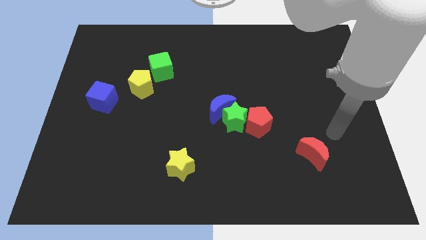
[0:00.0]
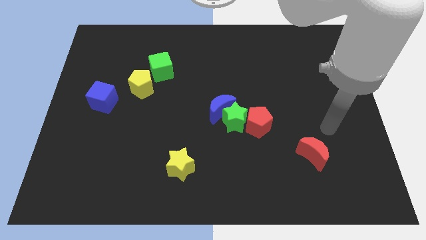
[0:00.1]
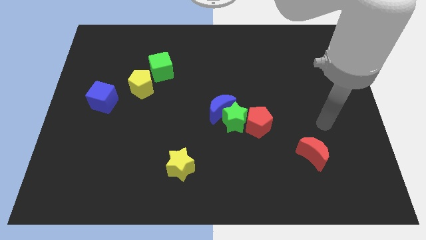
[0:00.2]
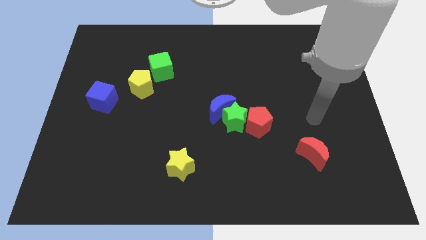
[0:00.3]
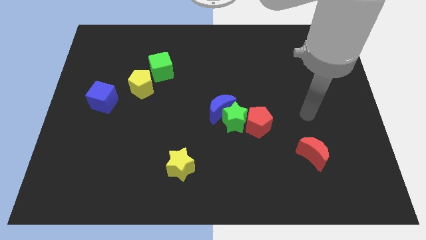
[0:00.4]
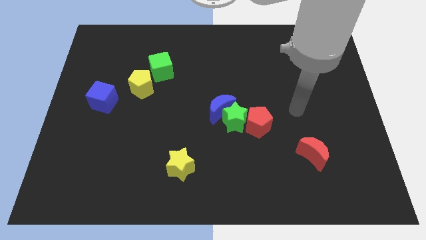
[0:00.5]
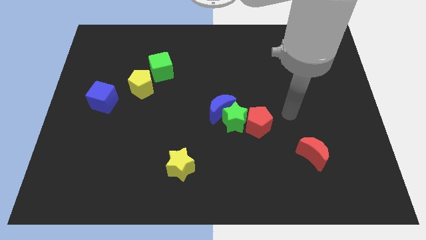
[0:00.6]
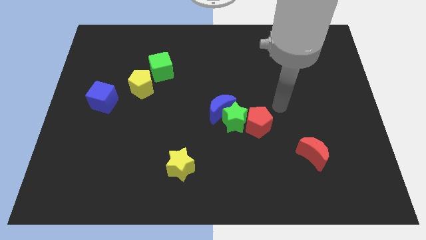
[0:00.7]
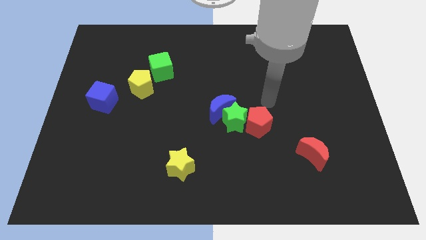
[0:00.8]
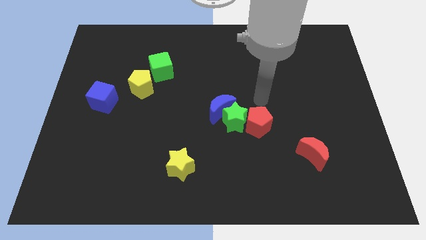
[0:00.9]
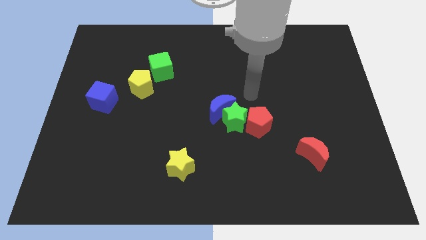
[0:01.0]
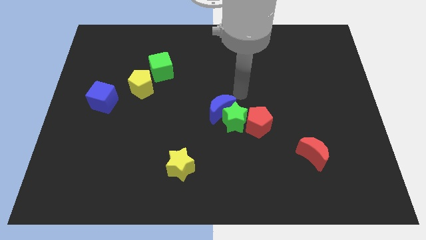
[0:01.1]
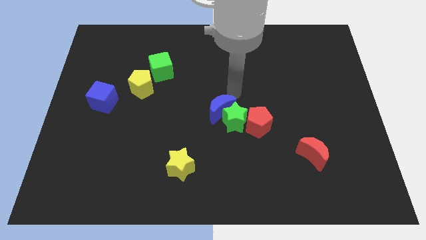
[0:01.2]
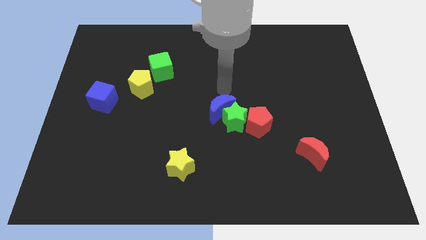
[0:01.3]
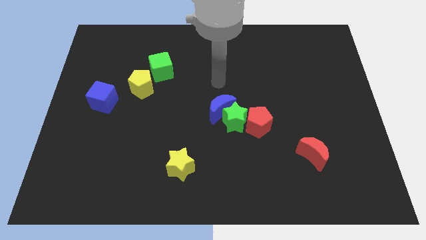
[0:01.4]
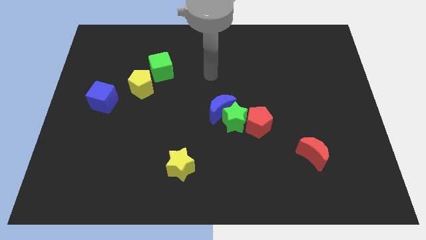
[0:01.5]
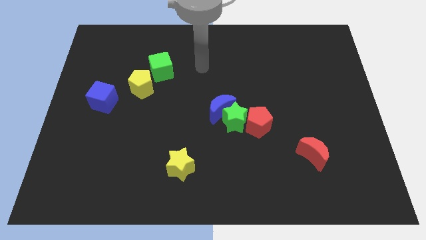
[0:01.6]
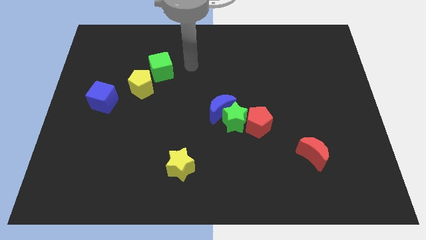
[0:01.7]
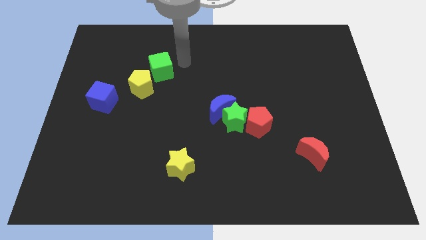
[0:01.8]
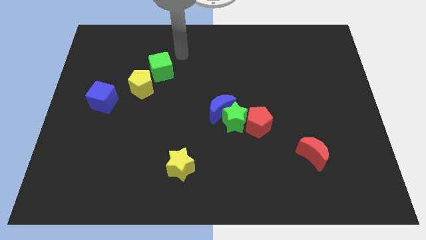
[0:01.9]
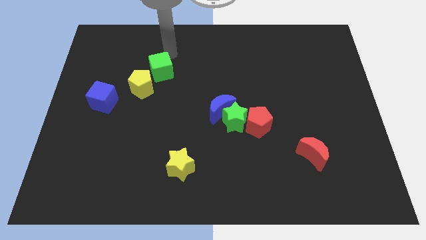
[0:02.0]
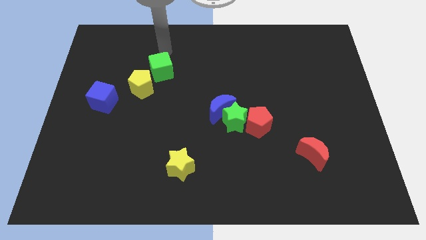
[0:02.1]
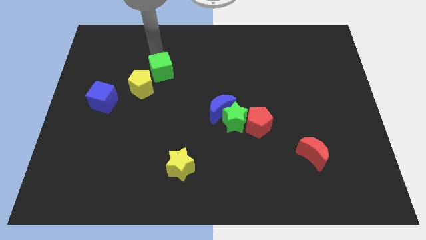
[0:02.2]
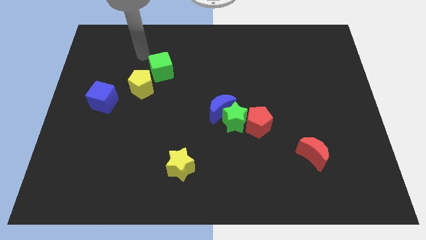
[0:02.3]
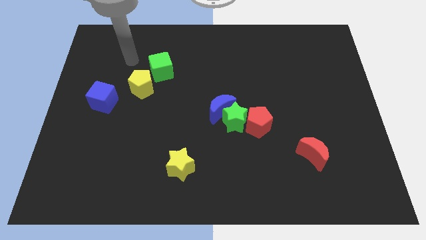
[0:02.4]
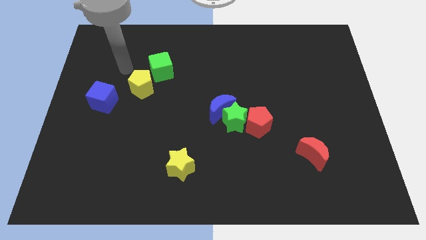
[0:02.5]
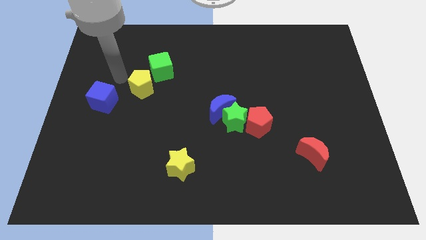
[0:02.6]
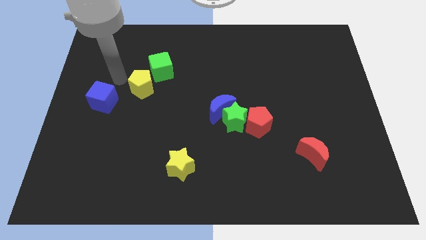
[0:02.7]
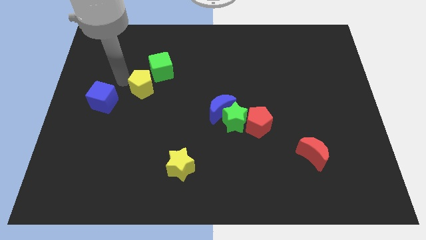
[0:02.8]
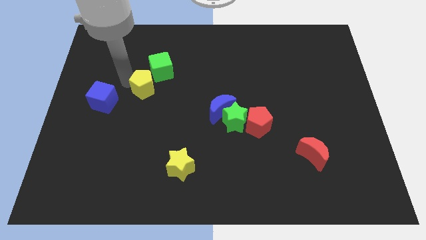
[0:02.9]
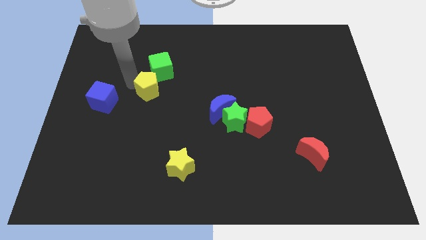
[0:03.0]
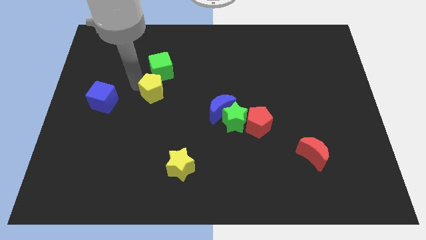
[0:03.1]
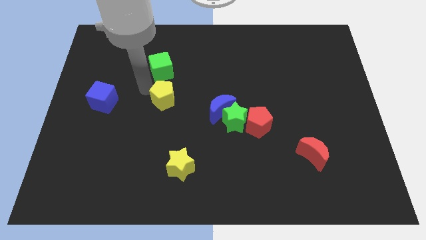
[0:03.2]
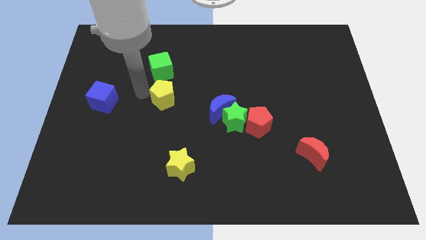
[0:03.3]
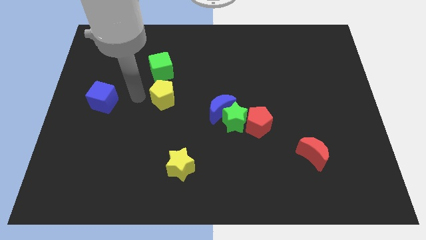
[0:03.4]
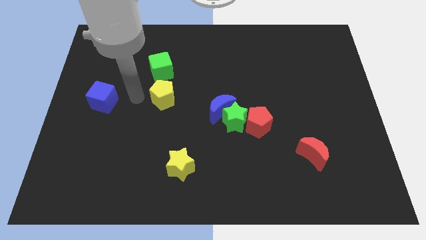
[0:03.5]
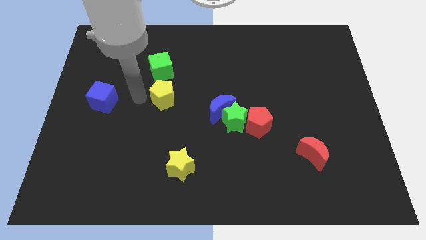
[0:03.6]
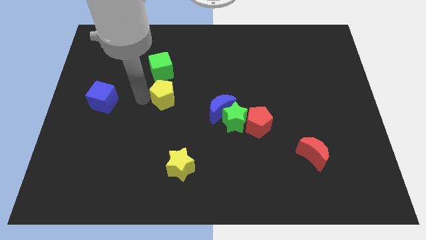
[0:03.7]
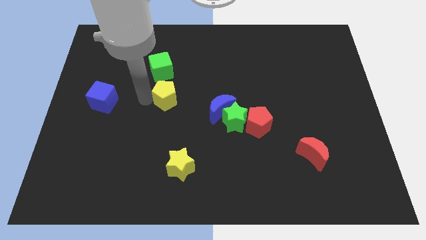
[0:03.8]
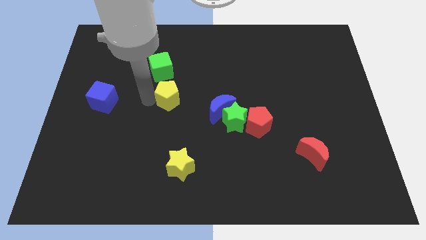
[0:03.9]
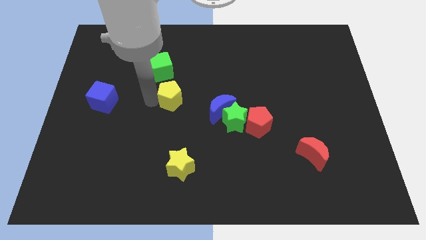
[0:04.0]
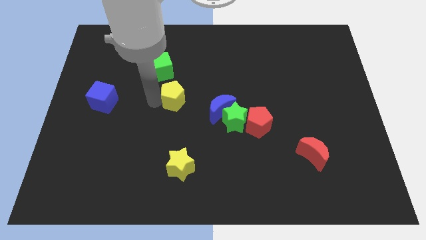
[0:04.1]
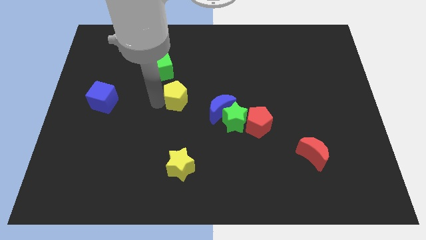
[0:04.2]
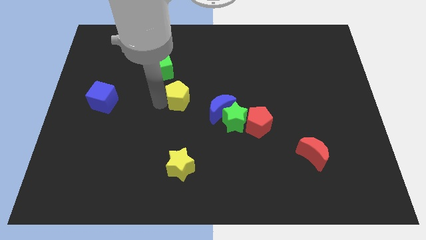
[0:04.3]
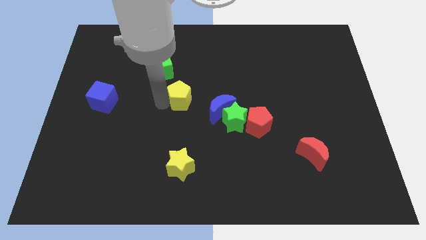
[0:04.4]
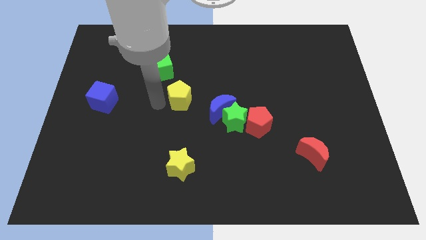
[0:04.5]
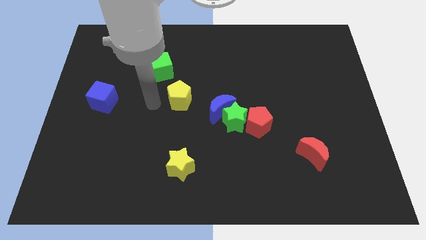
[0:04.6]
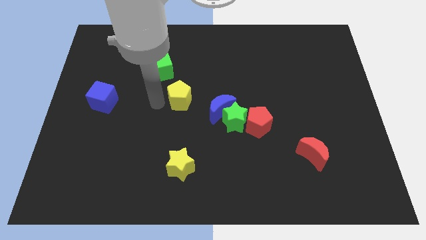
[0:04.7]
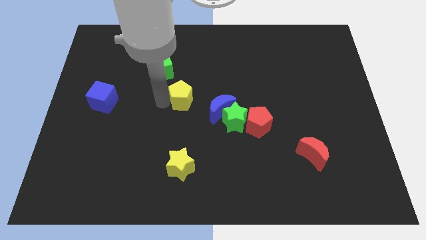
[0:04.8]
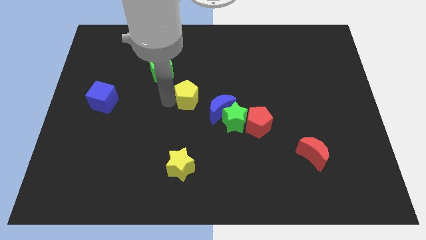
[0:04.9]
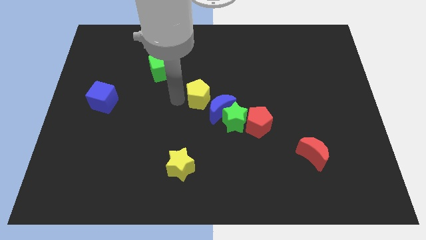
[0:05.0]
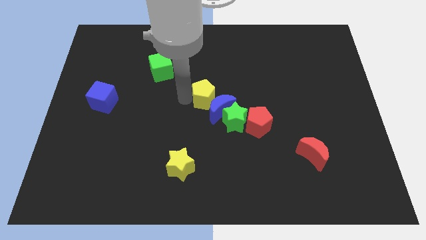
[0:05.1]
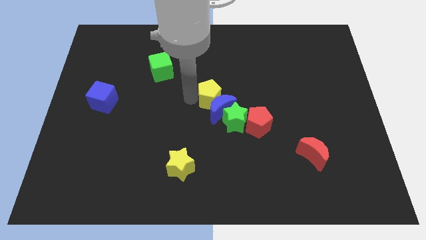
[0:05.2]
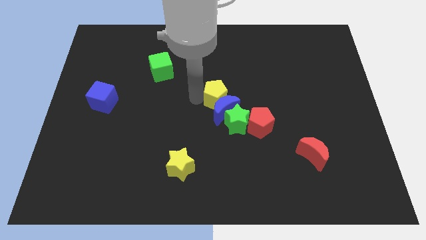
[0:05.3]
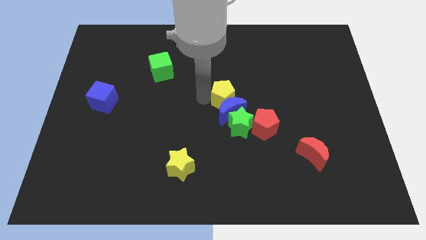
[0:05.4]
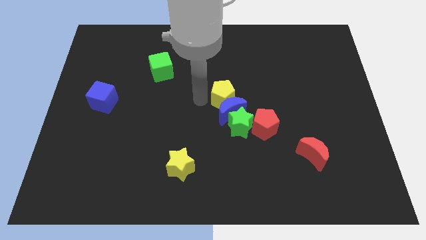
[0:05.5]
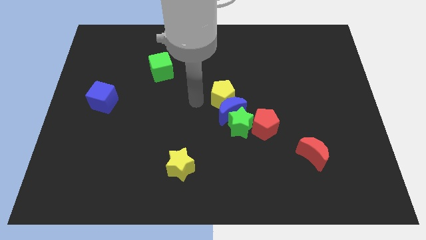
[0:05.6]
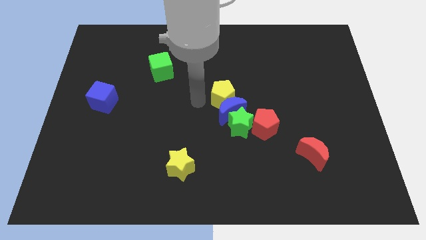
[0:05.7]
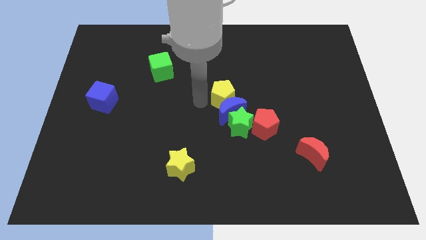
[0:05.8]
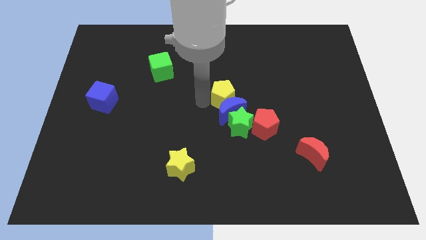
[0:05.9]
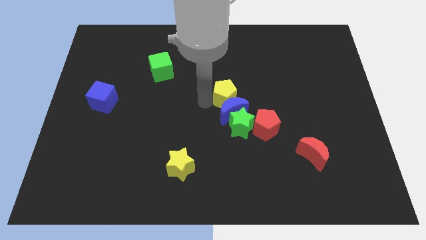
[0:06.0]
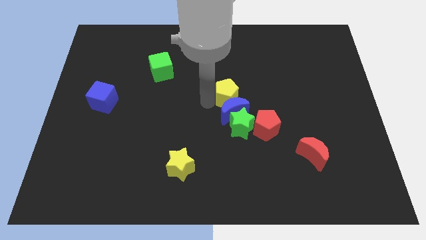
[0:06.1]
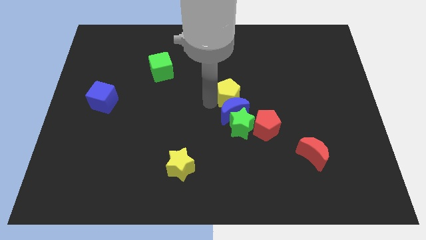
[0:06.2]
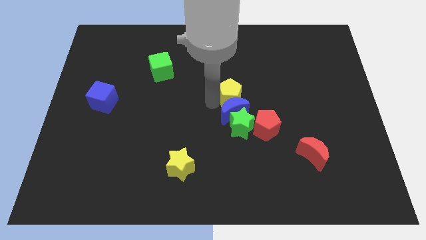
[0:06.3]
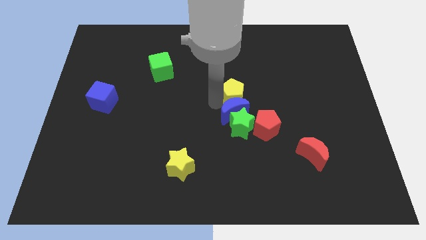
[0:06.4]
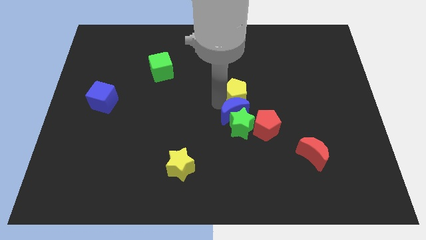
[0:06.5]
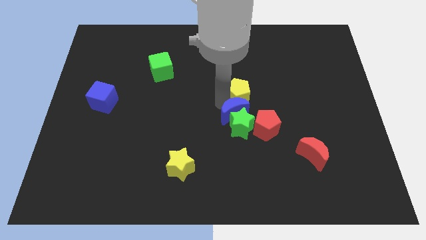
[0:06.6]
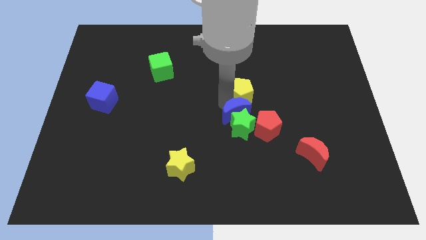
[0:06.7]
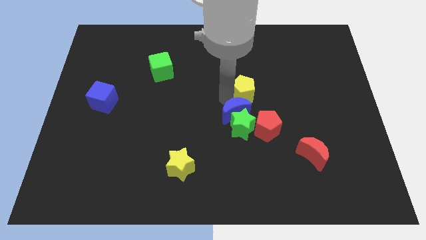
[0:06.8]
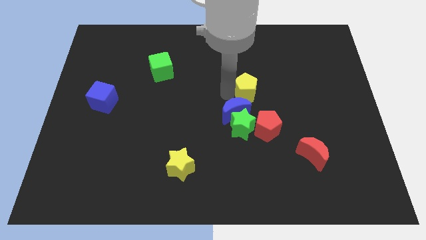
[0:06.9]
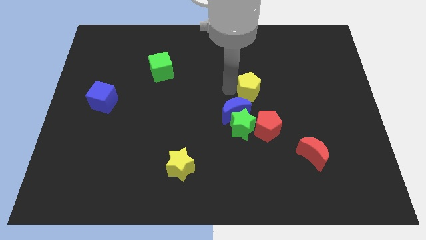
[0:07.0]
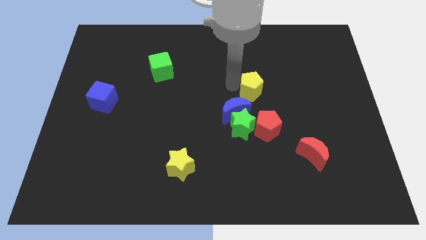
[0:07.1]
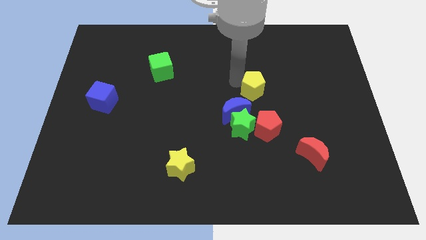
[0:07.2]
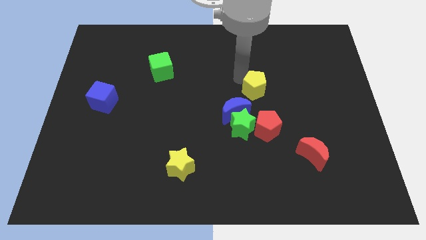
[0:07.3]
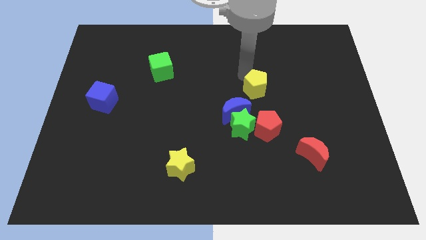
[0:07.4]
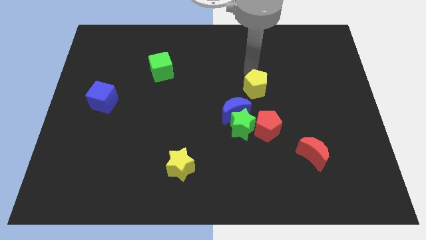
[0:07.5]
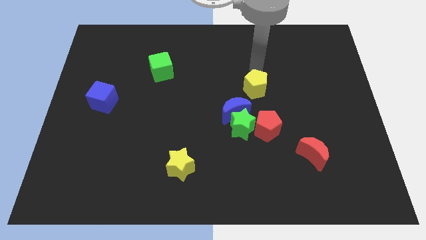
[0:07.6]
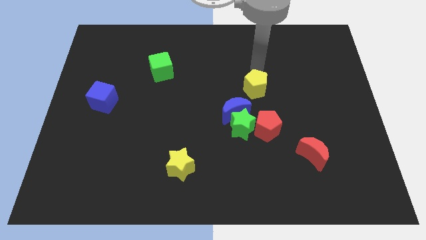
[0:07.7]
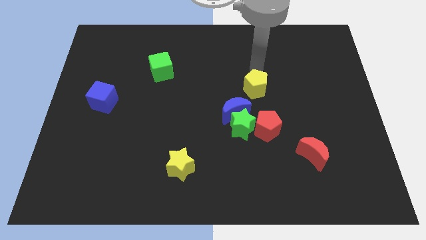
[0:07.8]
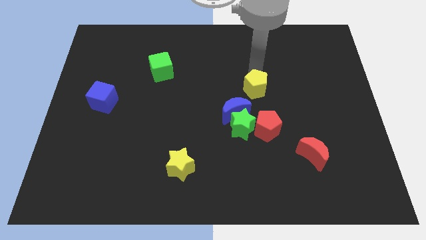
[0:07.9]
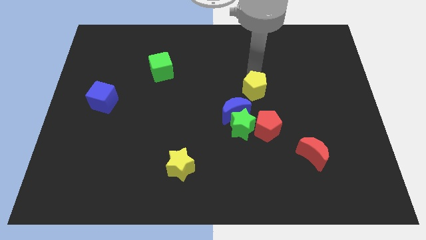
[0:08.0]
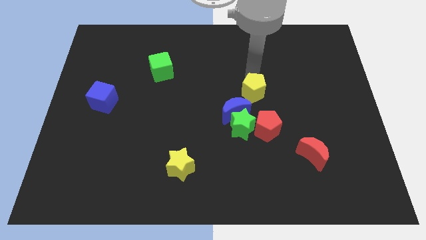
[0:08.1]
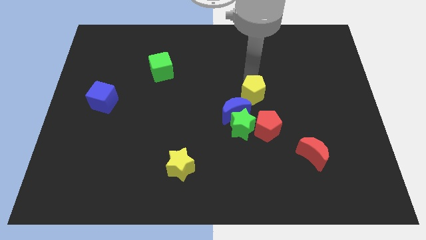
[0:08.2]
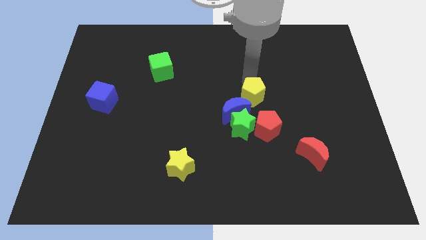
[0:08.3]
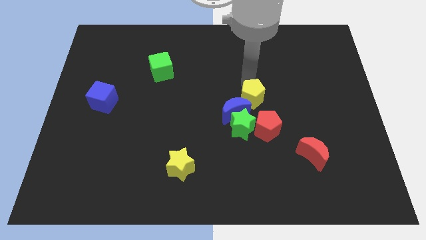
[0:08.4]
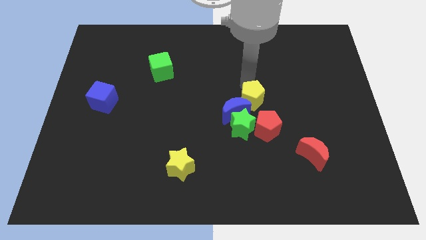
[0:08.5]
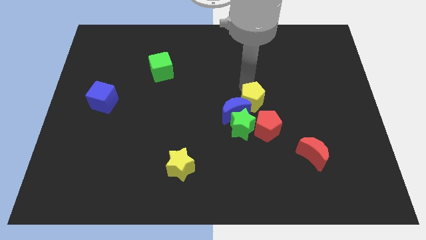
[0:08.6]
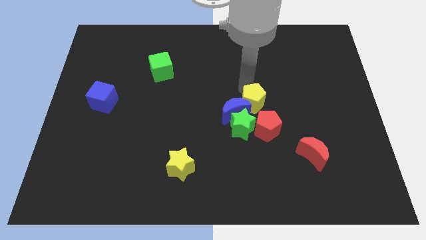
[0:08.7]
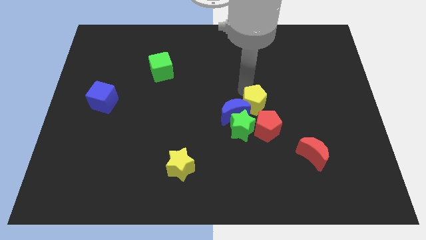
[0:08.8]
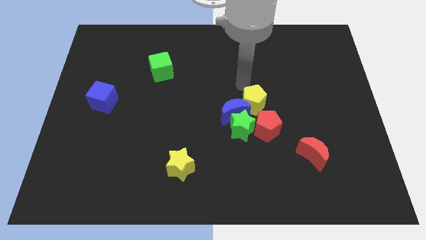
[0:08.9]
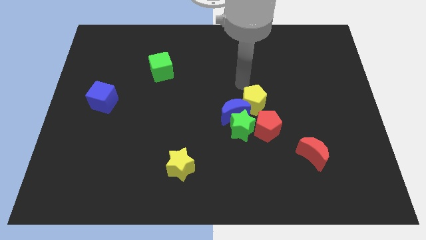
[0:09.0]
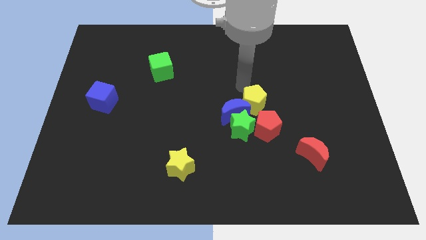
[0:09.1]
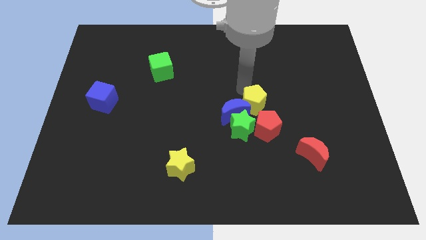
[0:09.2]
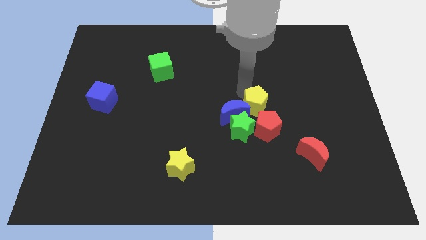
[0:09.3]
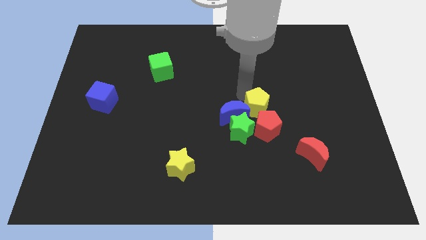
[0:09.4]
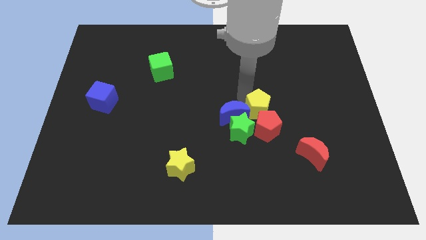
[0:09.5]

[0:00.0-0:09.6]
put the yellow pentagon close to the red pentagon
